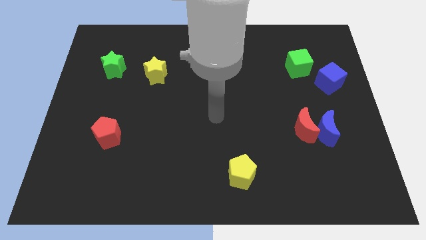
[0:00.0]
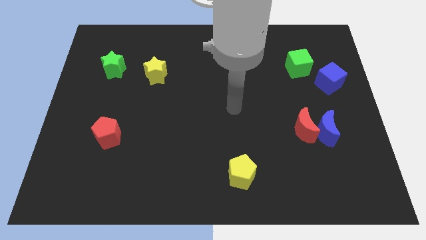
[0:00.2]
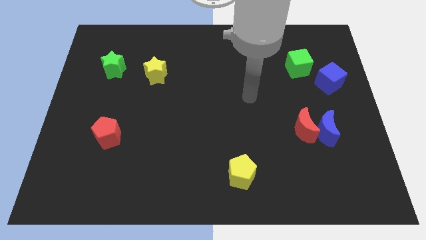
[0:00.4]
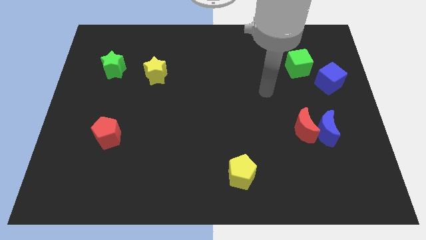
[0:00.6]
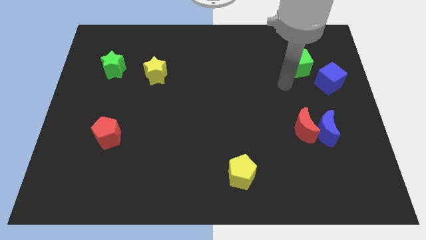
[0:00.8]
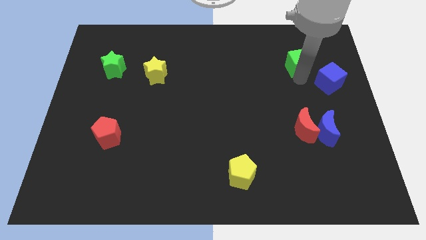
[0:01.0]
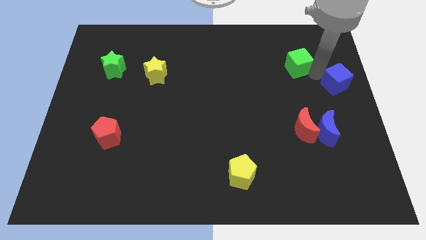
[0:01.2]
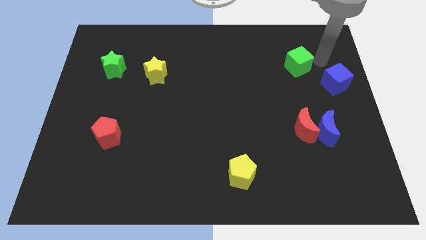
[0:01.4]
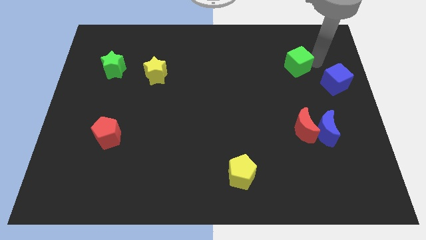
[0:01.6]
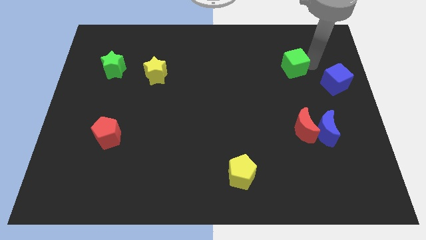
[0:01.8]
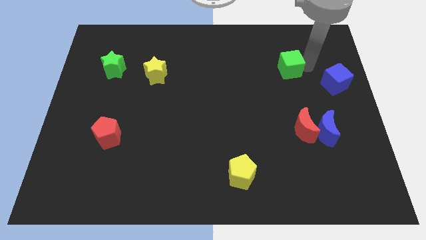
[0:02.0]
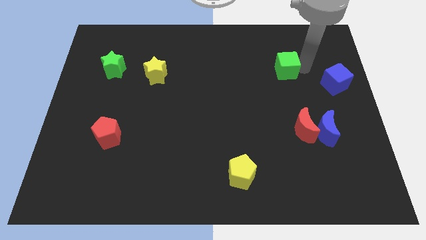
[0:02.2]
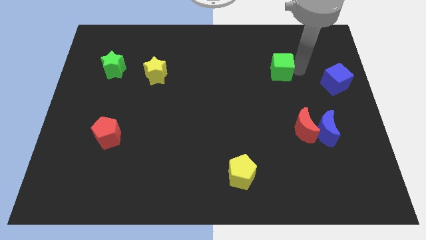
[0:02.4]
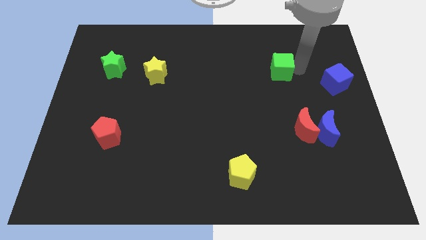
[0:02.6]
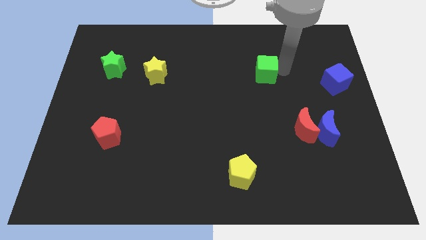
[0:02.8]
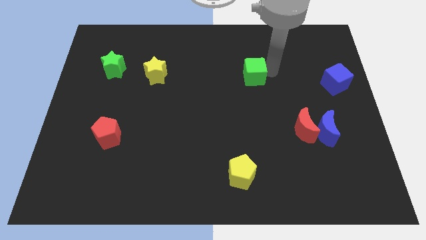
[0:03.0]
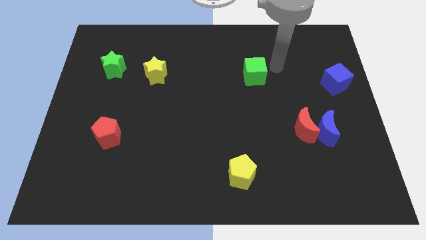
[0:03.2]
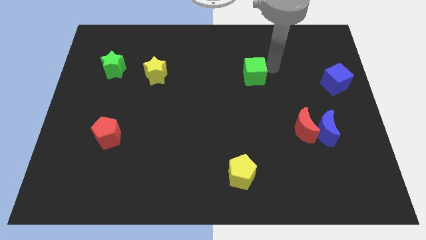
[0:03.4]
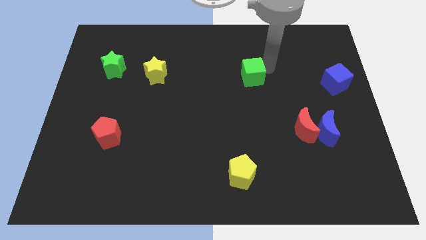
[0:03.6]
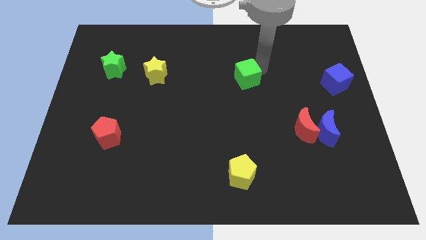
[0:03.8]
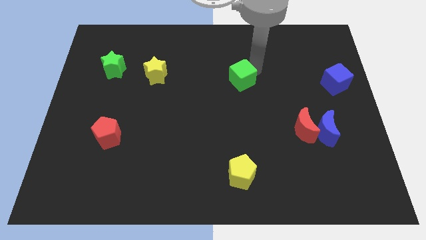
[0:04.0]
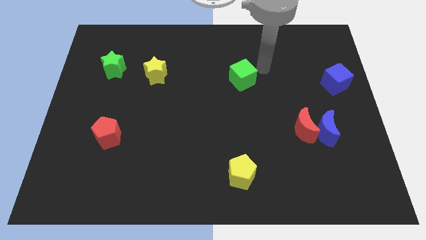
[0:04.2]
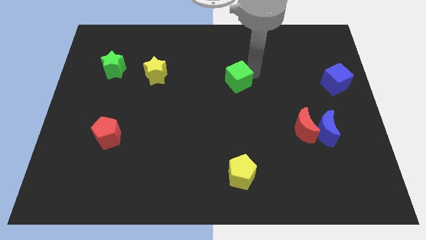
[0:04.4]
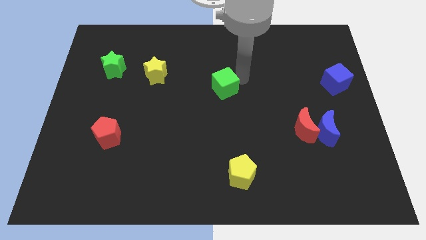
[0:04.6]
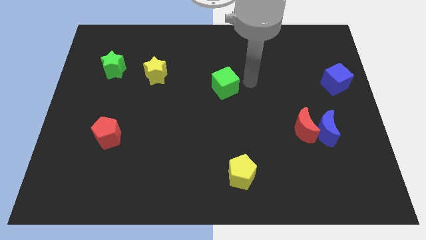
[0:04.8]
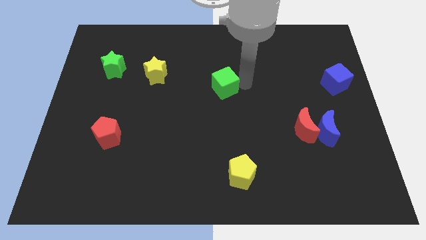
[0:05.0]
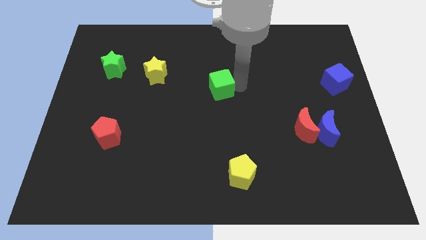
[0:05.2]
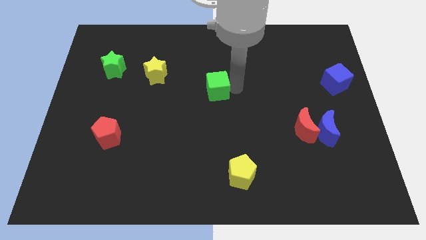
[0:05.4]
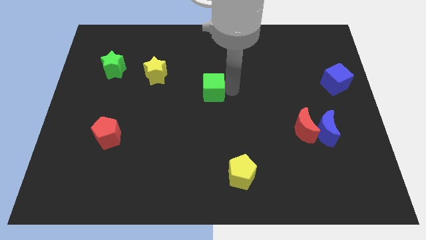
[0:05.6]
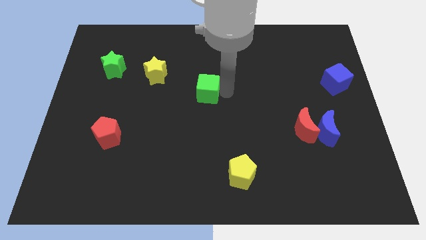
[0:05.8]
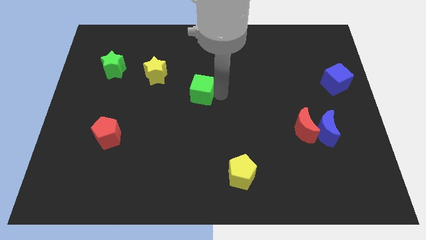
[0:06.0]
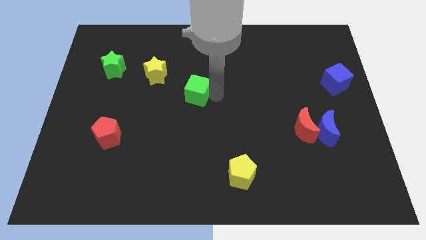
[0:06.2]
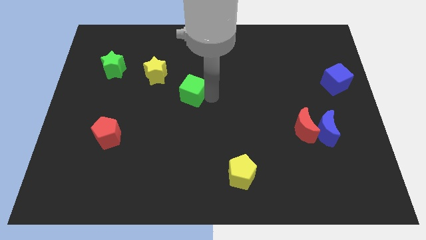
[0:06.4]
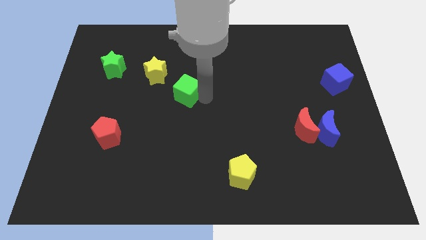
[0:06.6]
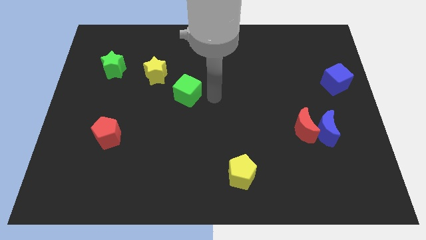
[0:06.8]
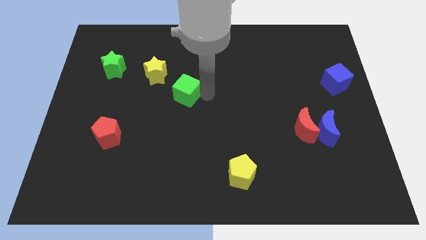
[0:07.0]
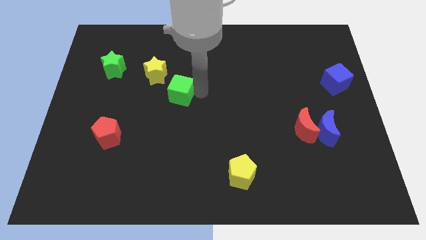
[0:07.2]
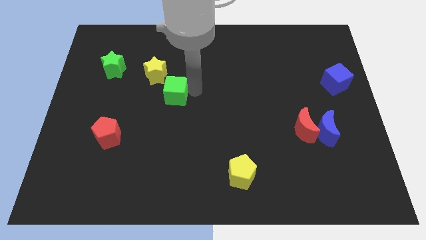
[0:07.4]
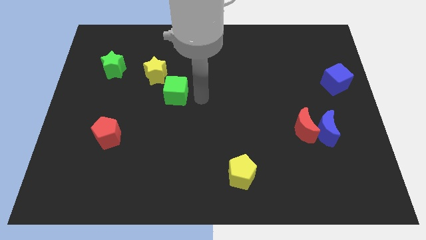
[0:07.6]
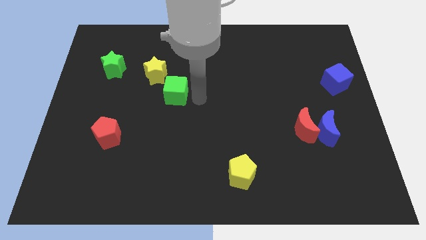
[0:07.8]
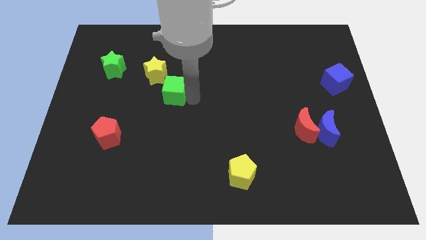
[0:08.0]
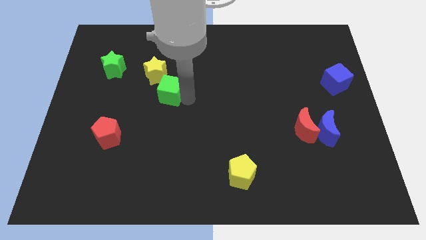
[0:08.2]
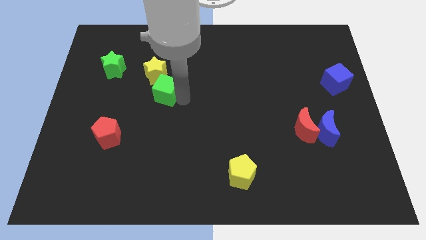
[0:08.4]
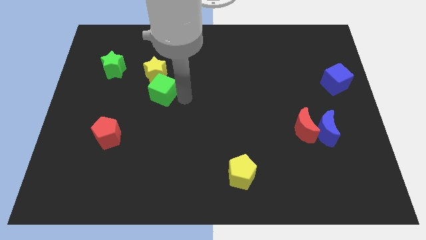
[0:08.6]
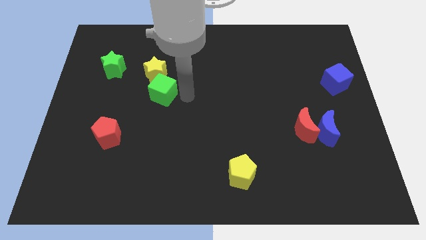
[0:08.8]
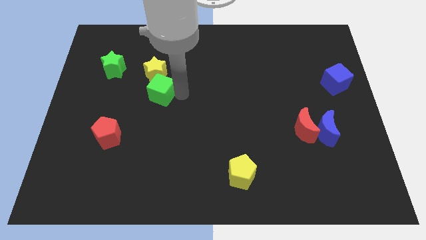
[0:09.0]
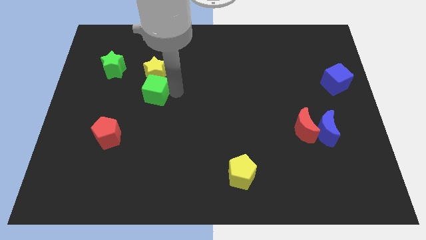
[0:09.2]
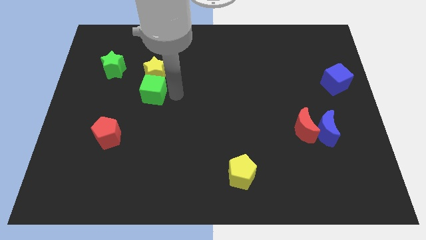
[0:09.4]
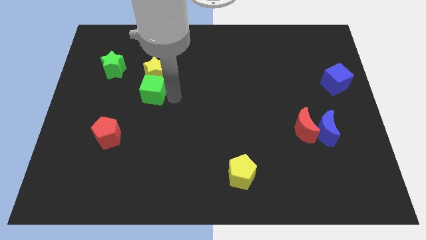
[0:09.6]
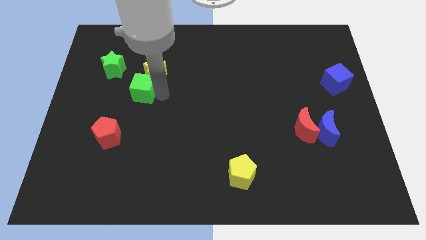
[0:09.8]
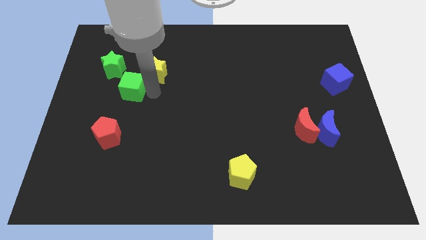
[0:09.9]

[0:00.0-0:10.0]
slide the green cube just left of the yellow star

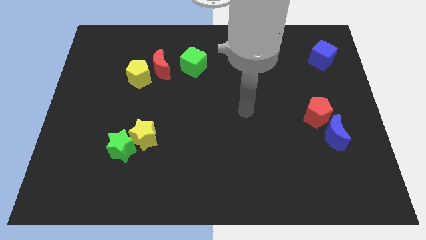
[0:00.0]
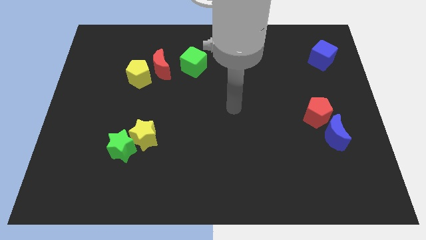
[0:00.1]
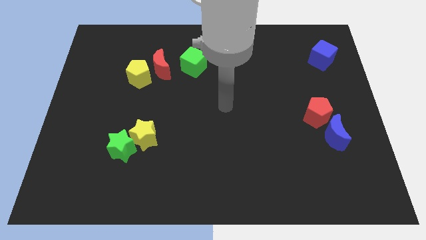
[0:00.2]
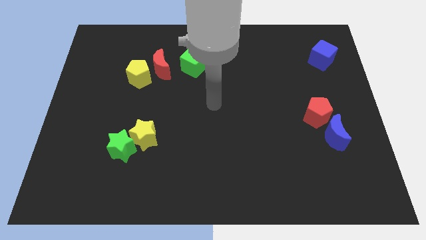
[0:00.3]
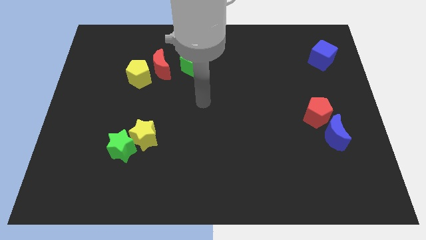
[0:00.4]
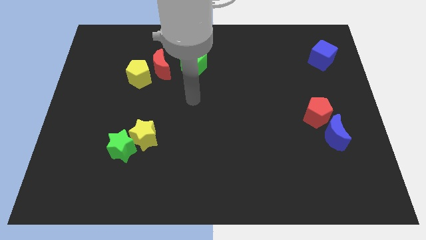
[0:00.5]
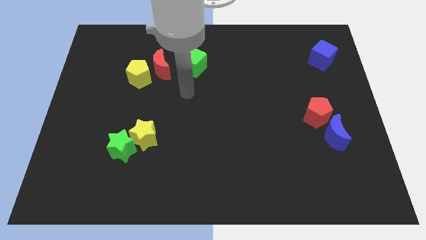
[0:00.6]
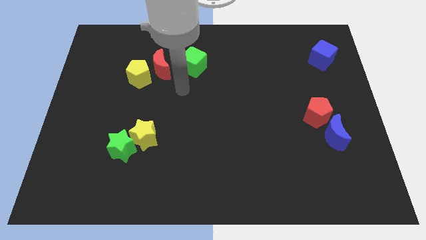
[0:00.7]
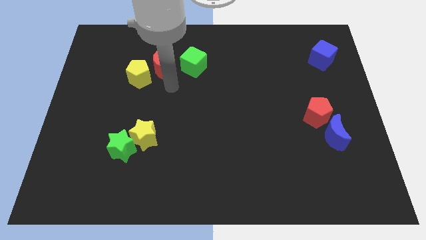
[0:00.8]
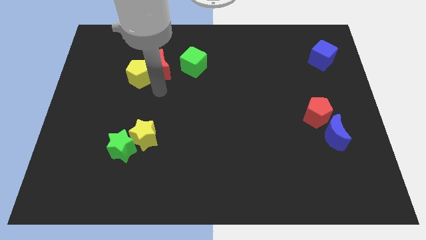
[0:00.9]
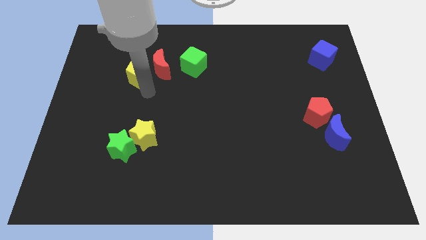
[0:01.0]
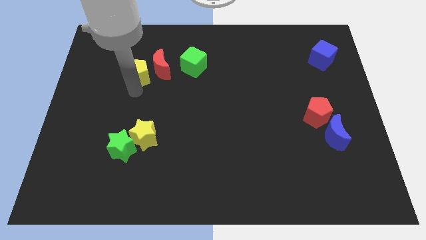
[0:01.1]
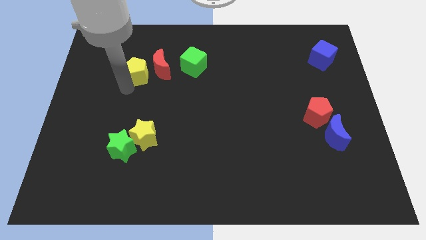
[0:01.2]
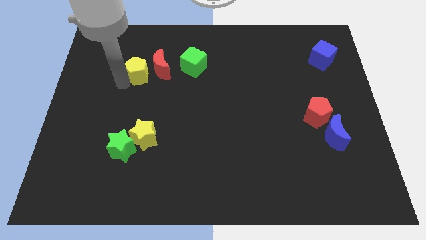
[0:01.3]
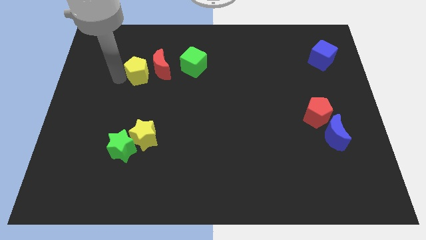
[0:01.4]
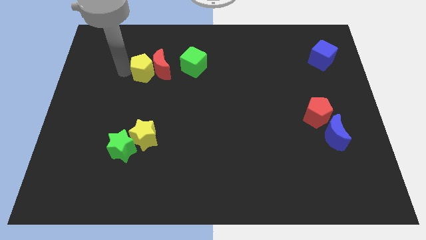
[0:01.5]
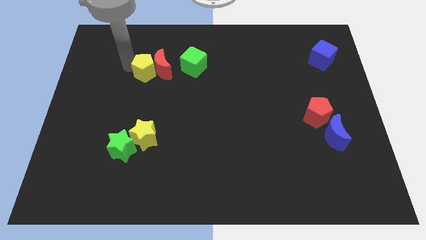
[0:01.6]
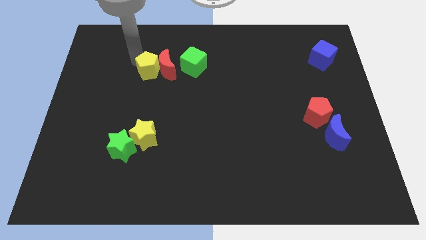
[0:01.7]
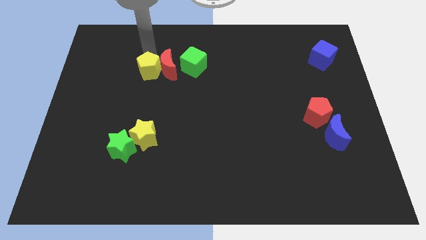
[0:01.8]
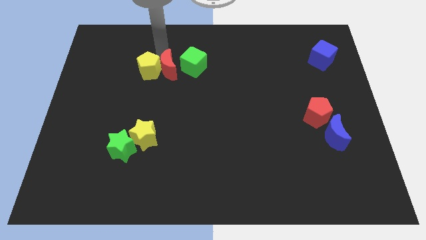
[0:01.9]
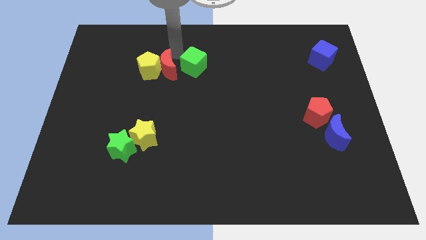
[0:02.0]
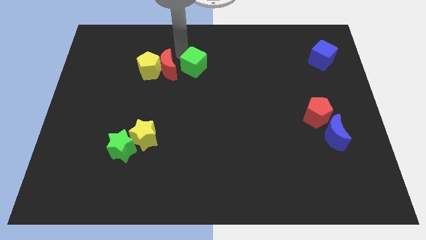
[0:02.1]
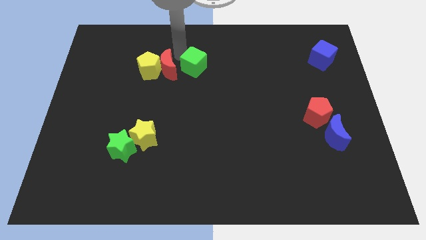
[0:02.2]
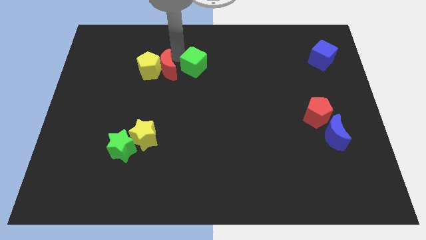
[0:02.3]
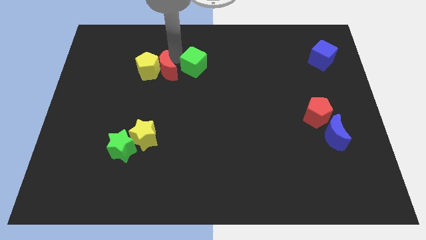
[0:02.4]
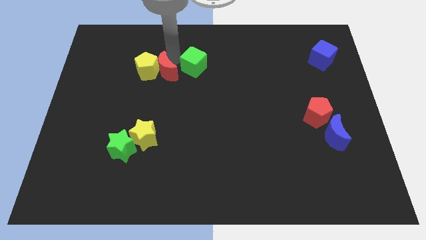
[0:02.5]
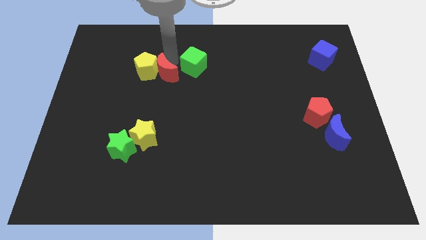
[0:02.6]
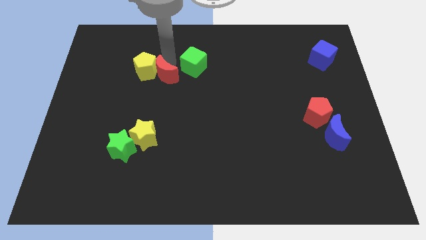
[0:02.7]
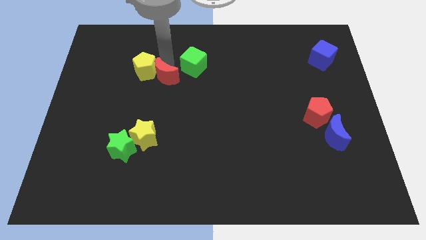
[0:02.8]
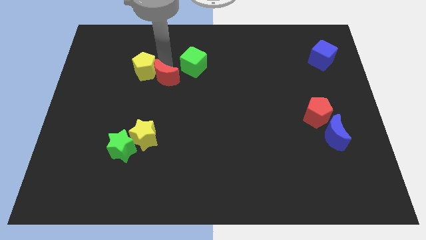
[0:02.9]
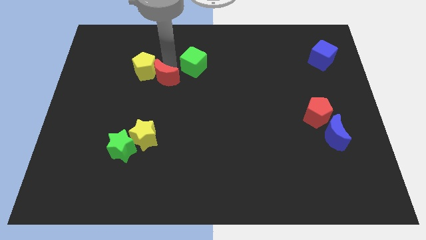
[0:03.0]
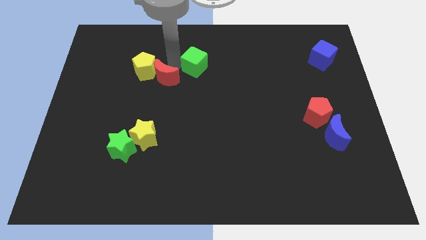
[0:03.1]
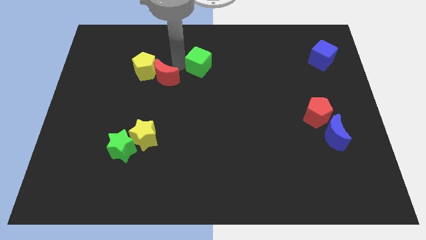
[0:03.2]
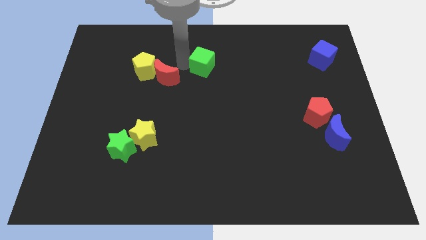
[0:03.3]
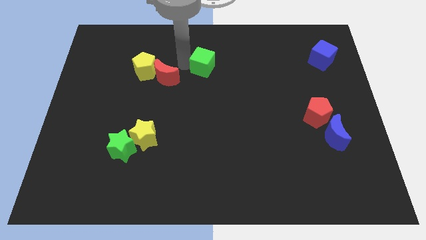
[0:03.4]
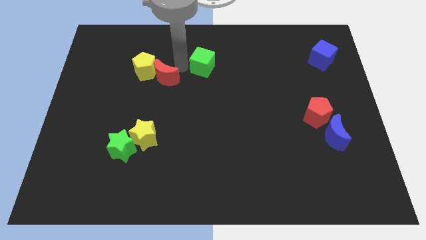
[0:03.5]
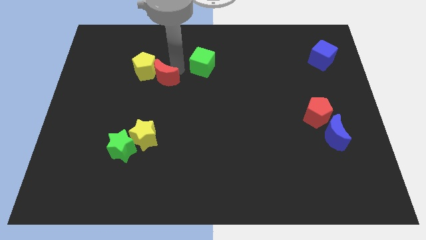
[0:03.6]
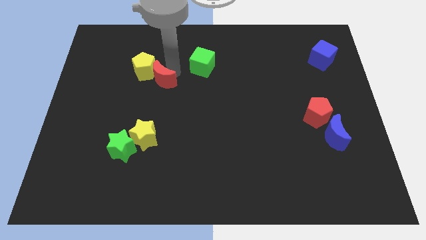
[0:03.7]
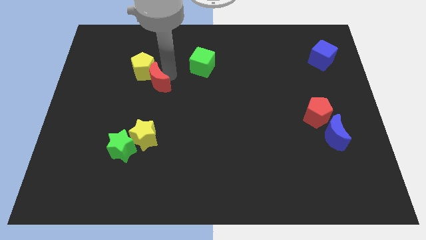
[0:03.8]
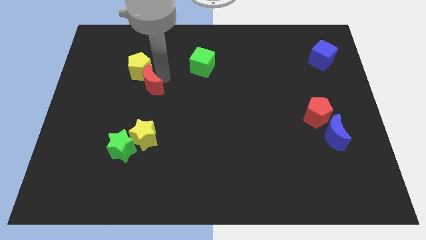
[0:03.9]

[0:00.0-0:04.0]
slide the red moon above the yellow star
